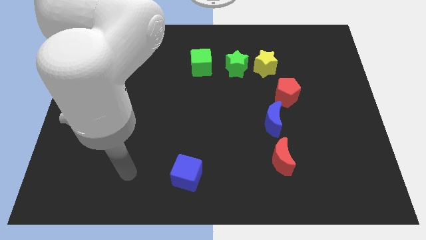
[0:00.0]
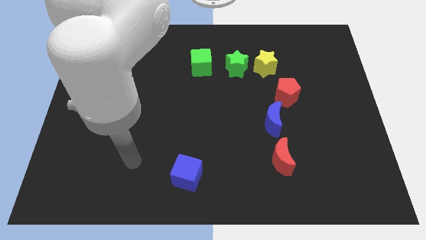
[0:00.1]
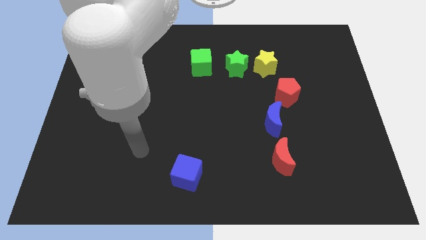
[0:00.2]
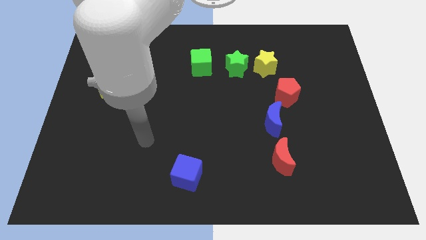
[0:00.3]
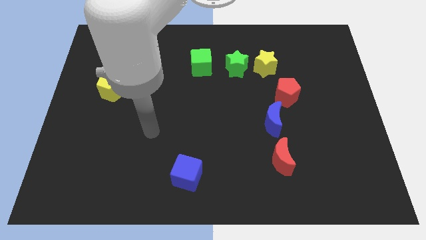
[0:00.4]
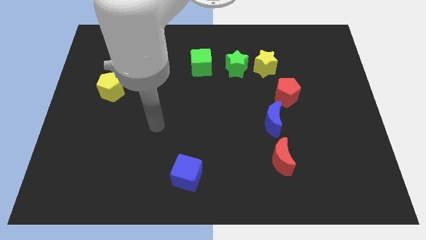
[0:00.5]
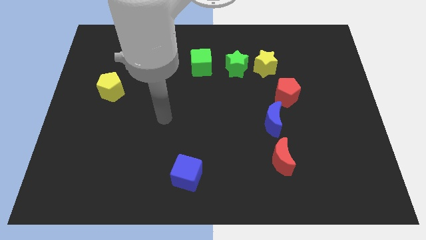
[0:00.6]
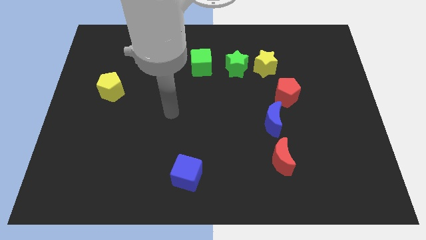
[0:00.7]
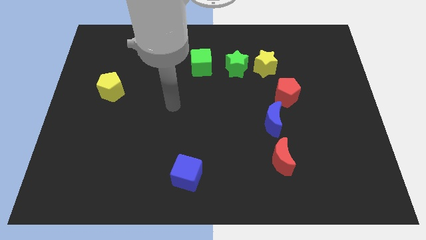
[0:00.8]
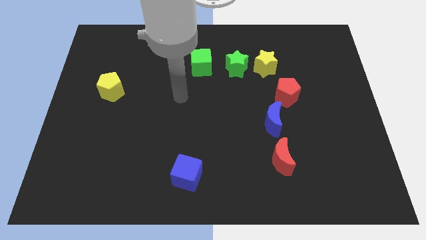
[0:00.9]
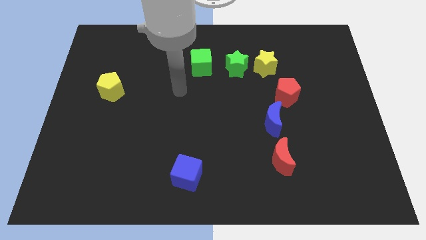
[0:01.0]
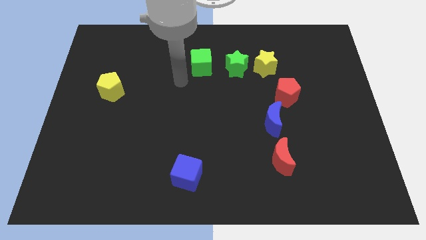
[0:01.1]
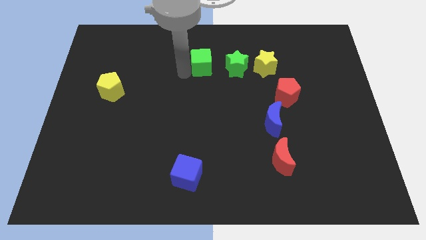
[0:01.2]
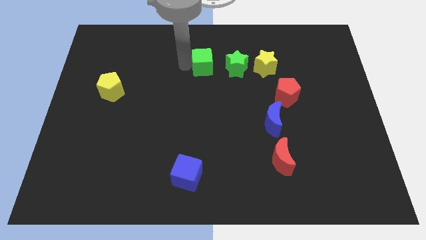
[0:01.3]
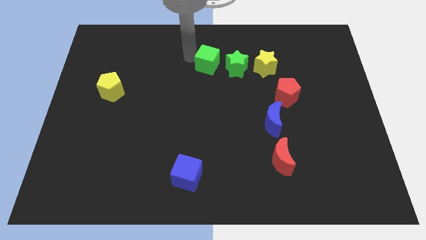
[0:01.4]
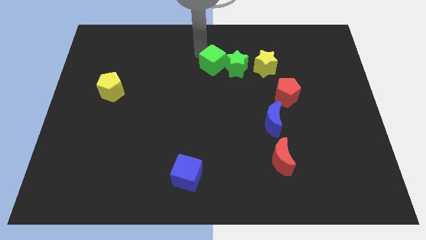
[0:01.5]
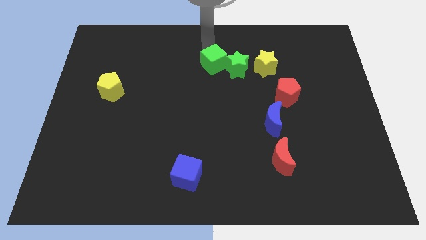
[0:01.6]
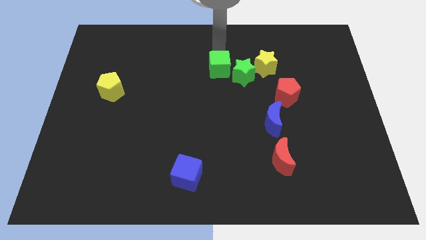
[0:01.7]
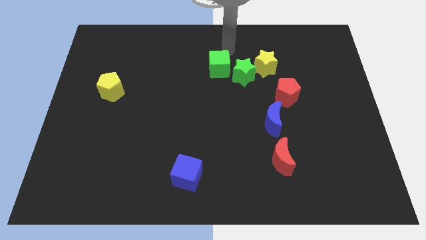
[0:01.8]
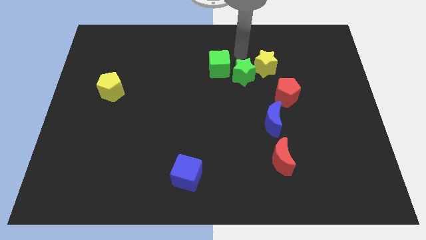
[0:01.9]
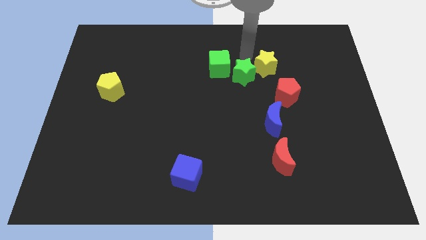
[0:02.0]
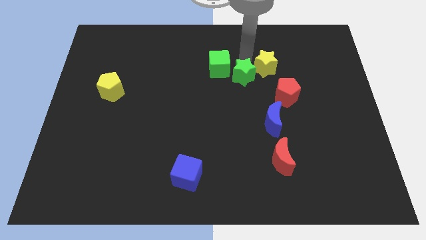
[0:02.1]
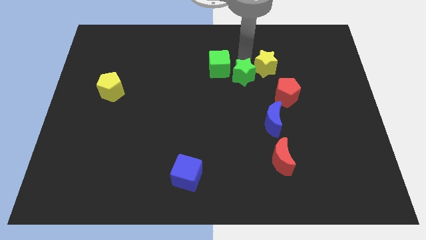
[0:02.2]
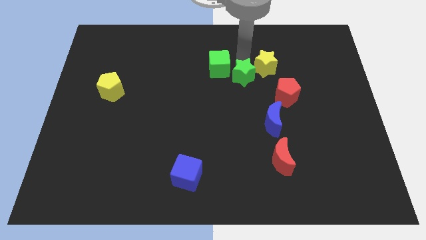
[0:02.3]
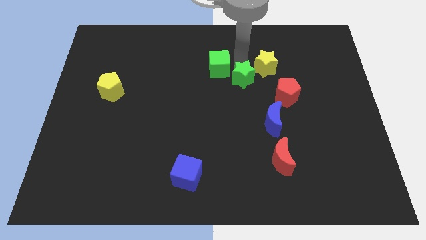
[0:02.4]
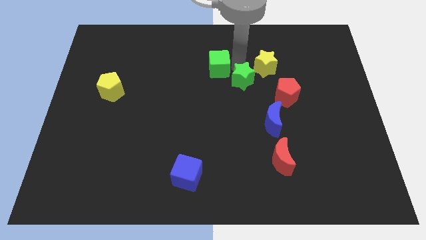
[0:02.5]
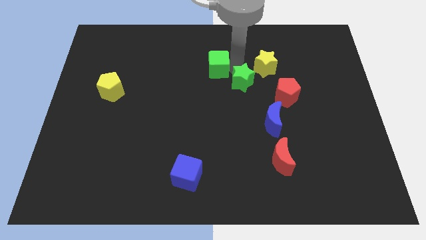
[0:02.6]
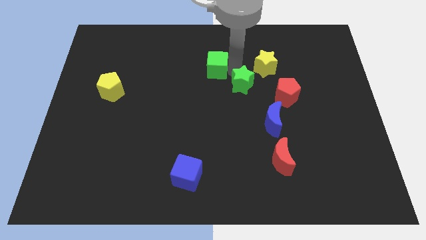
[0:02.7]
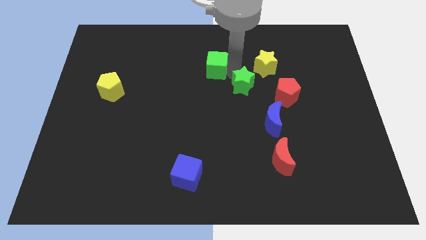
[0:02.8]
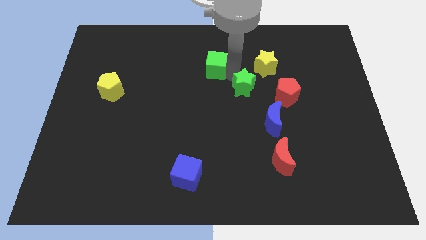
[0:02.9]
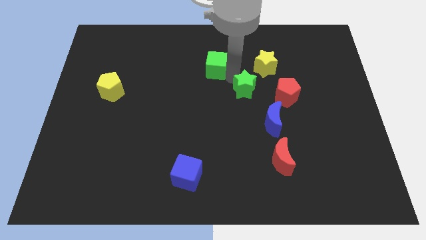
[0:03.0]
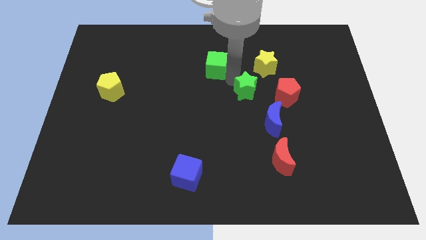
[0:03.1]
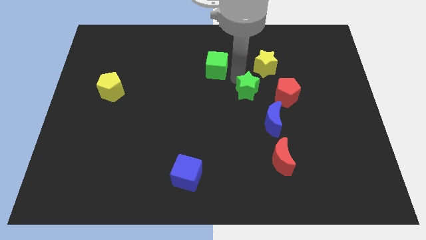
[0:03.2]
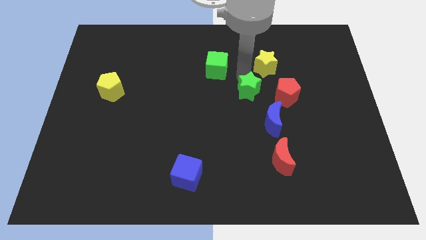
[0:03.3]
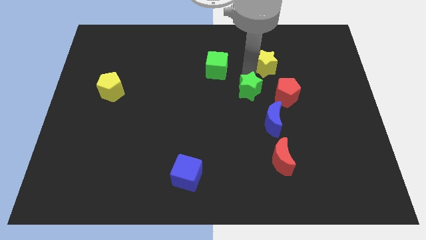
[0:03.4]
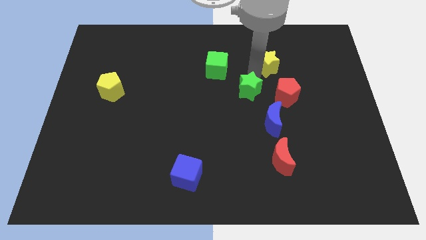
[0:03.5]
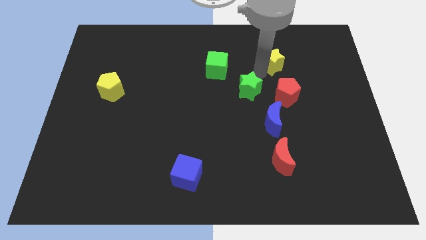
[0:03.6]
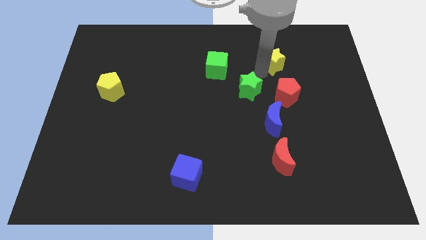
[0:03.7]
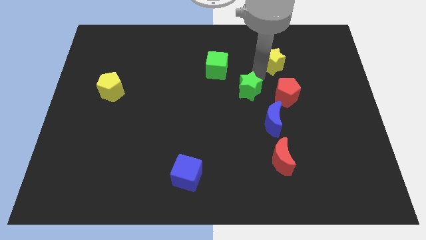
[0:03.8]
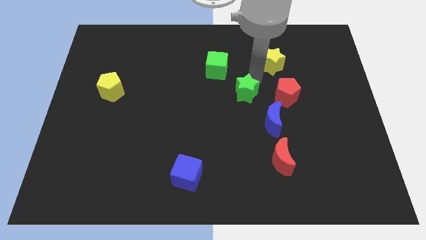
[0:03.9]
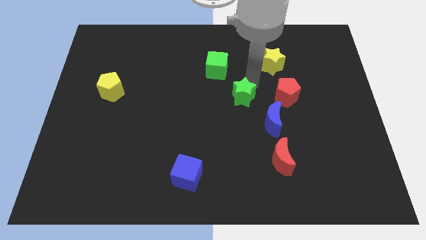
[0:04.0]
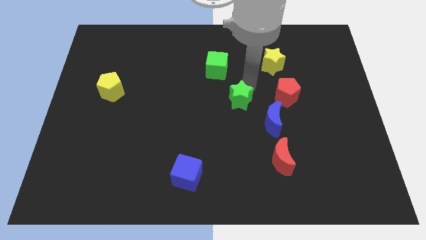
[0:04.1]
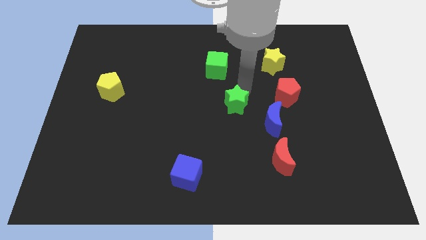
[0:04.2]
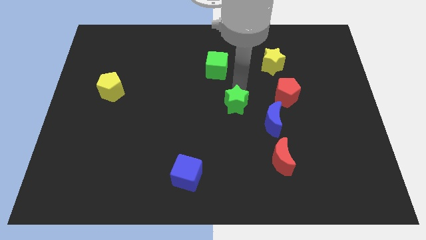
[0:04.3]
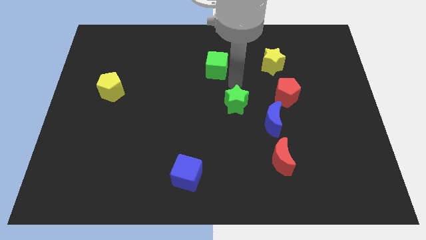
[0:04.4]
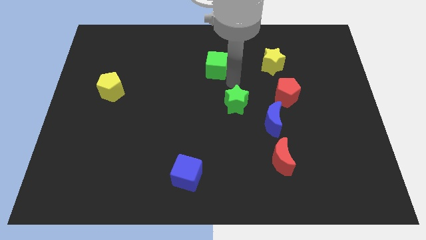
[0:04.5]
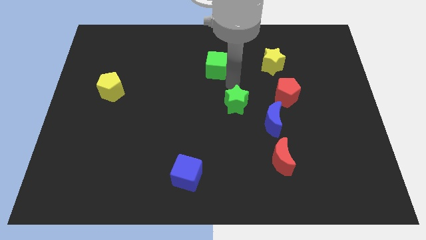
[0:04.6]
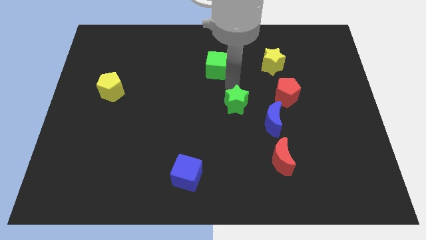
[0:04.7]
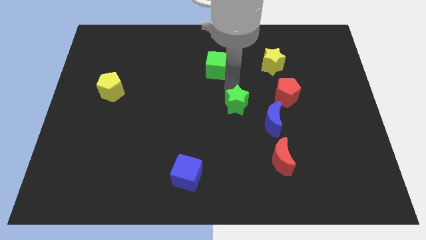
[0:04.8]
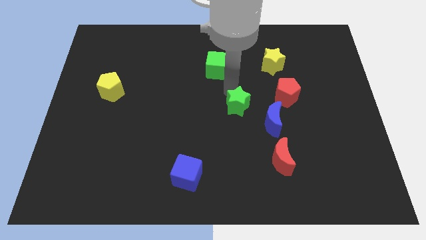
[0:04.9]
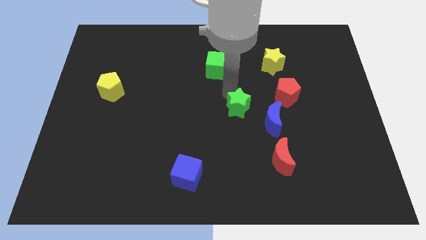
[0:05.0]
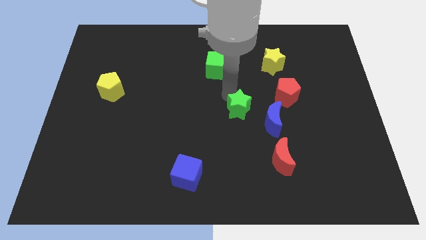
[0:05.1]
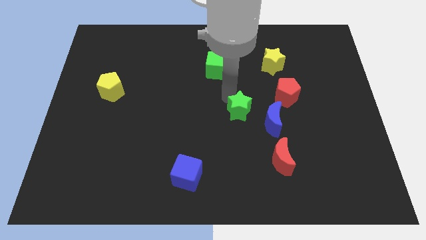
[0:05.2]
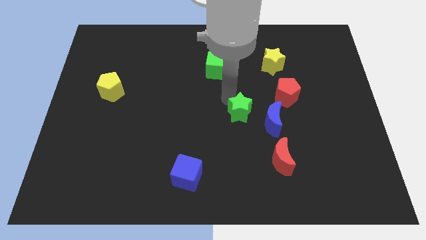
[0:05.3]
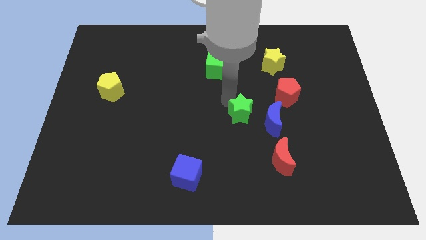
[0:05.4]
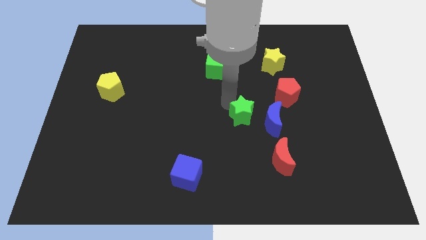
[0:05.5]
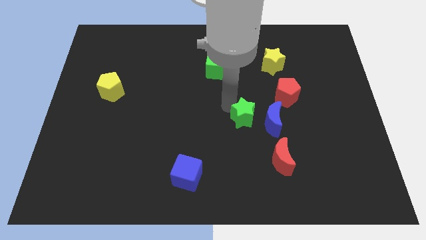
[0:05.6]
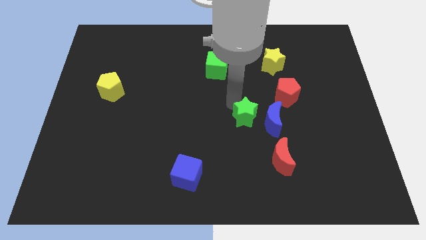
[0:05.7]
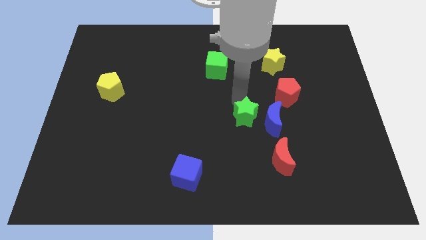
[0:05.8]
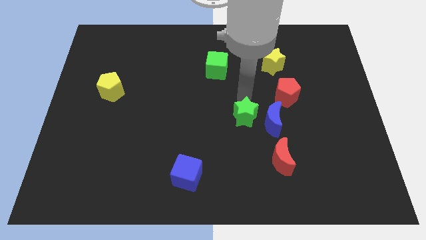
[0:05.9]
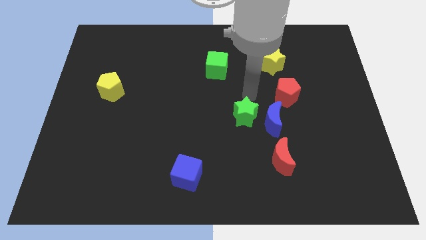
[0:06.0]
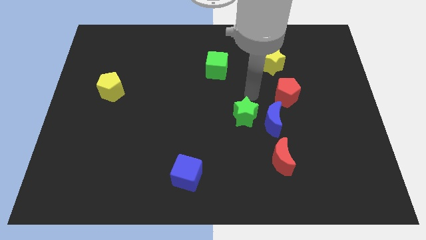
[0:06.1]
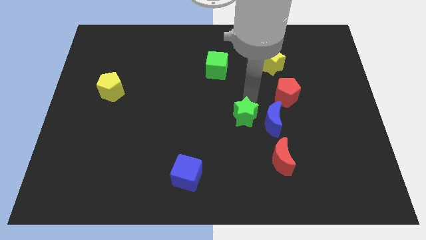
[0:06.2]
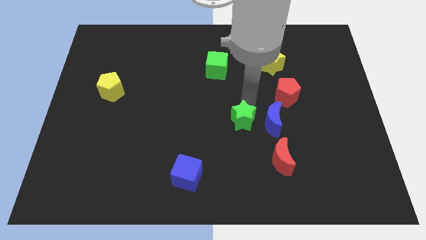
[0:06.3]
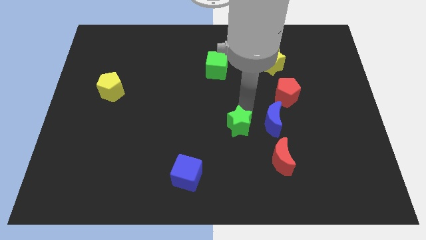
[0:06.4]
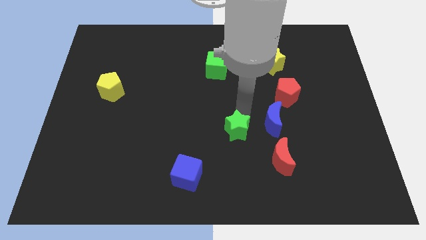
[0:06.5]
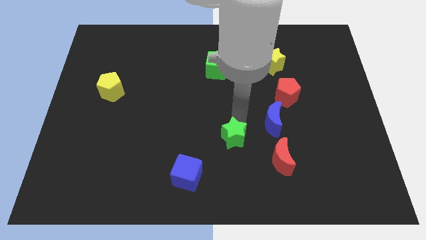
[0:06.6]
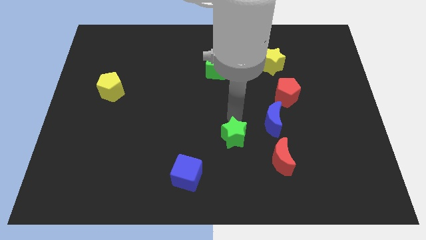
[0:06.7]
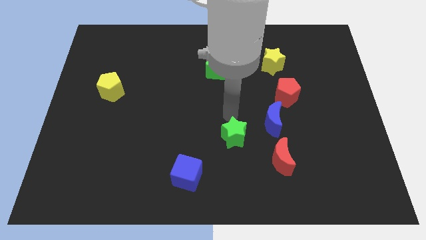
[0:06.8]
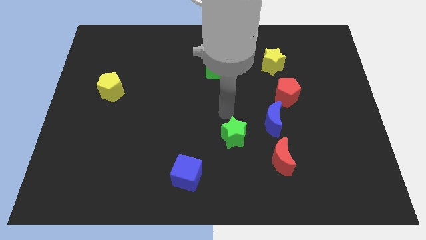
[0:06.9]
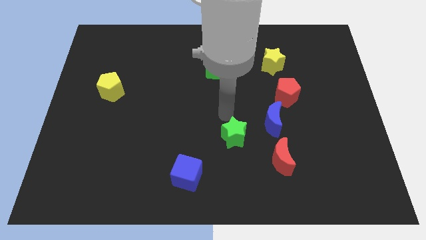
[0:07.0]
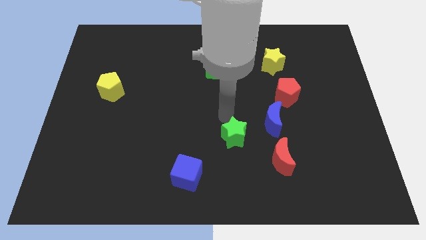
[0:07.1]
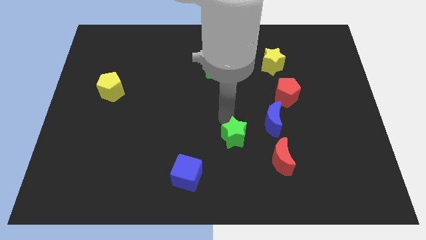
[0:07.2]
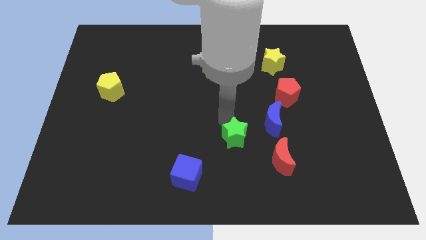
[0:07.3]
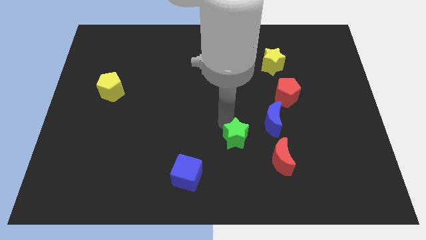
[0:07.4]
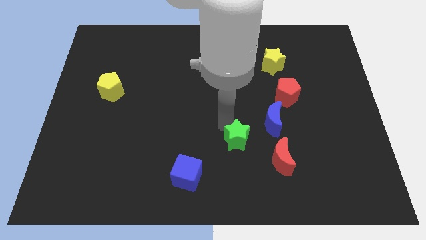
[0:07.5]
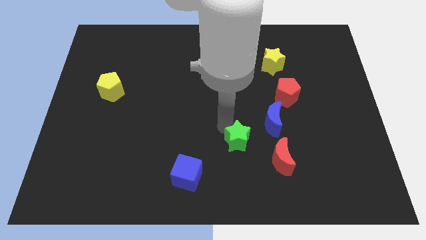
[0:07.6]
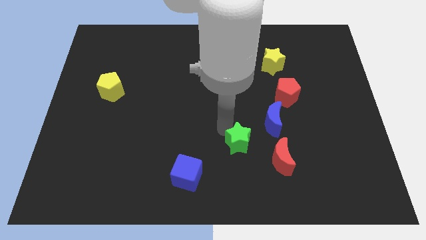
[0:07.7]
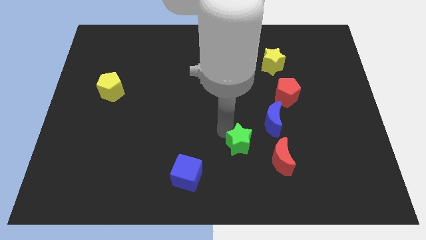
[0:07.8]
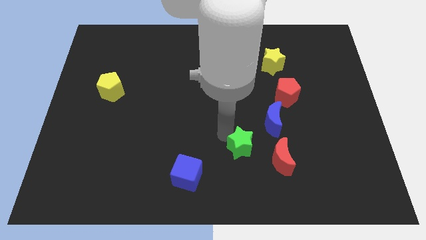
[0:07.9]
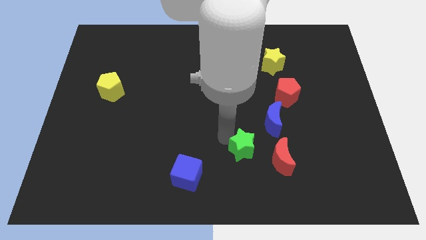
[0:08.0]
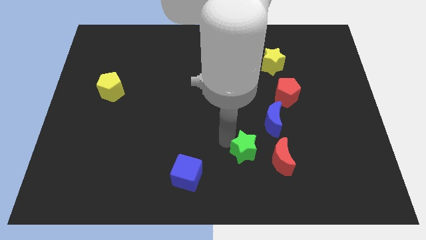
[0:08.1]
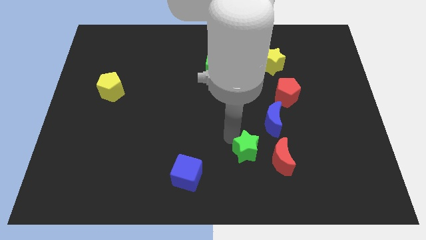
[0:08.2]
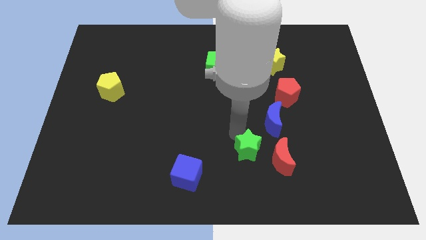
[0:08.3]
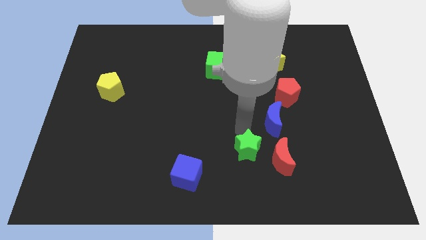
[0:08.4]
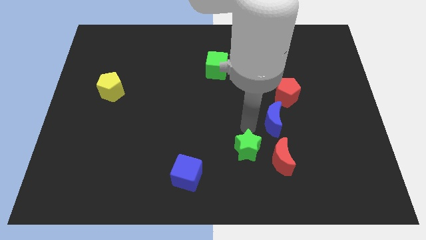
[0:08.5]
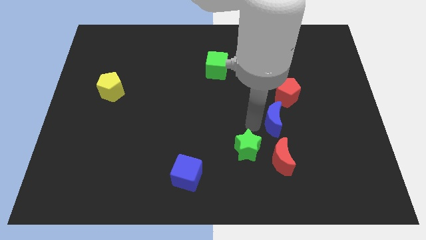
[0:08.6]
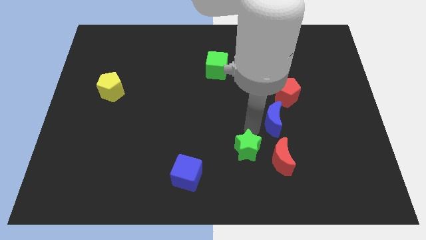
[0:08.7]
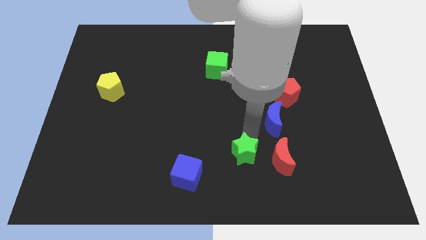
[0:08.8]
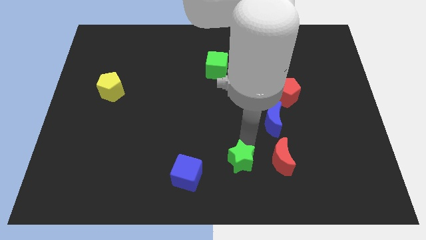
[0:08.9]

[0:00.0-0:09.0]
slide the green star just right of the blue cube
